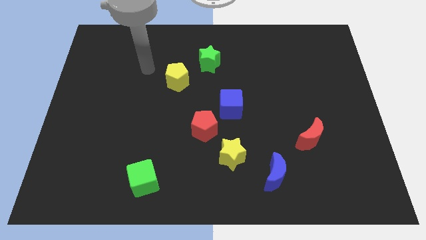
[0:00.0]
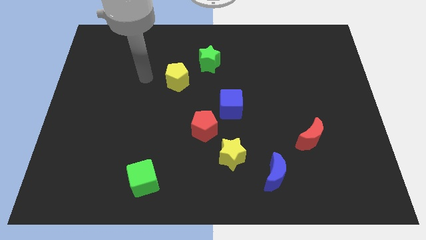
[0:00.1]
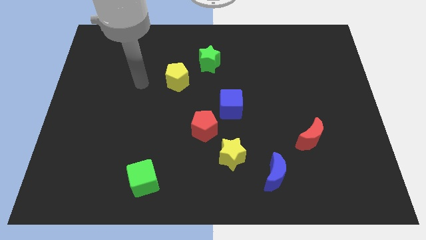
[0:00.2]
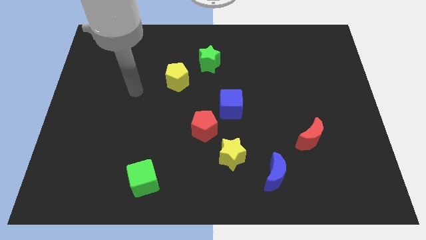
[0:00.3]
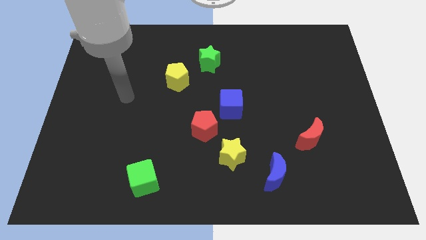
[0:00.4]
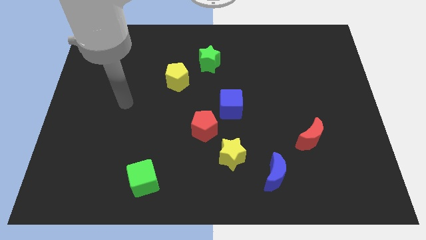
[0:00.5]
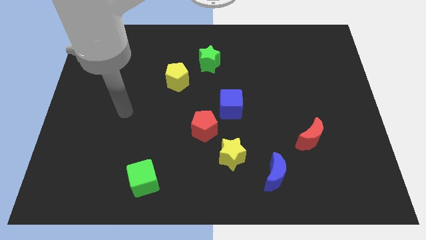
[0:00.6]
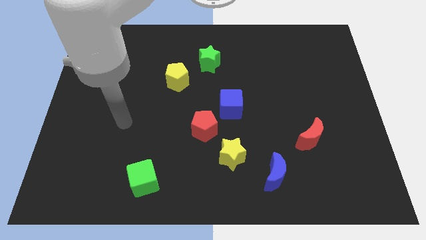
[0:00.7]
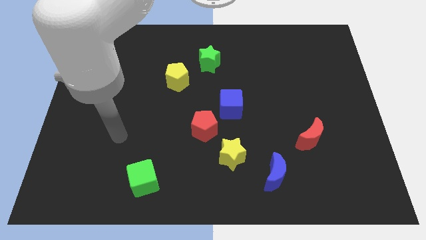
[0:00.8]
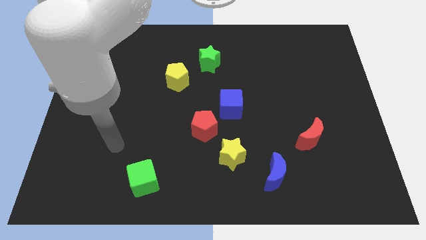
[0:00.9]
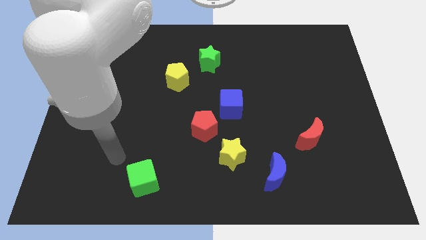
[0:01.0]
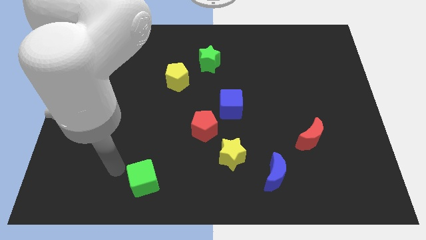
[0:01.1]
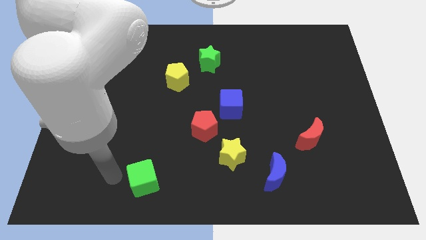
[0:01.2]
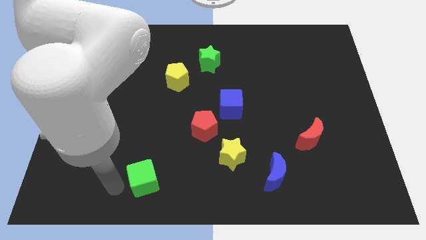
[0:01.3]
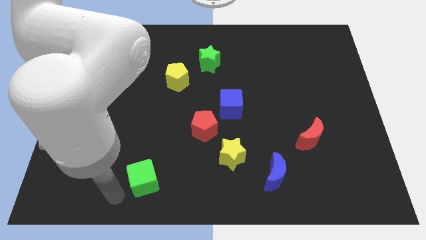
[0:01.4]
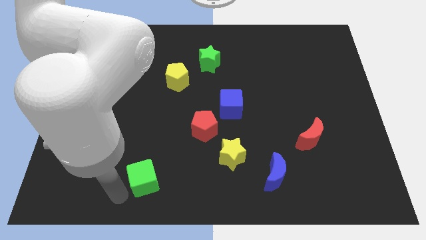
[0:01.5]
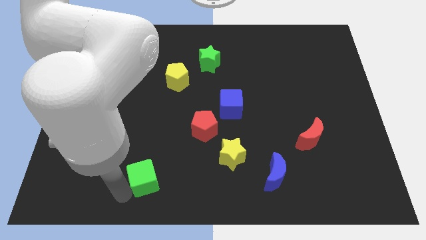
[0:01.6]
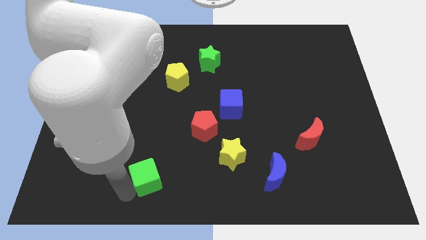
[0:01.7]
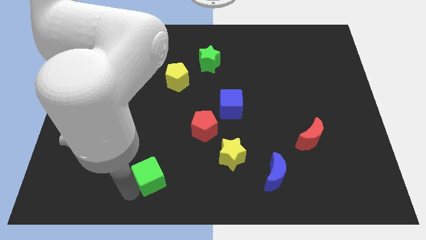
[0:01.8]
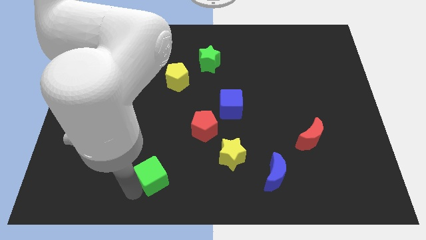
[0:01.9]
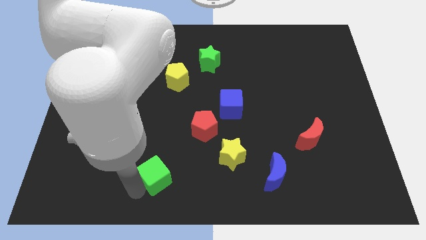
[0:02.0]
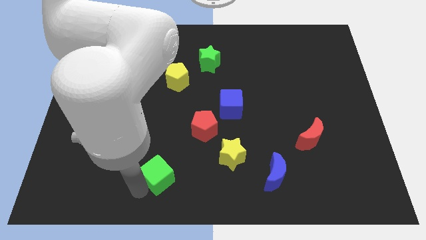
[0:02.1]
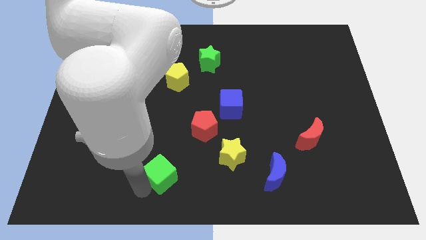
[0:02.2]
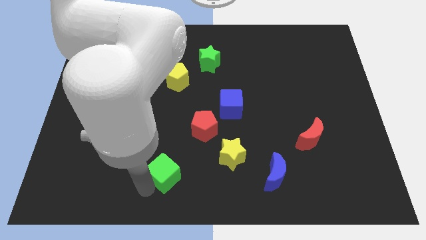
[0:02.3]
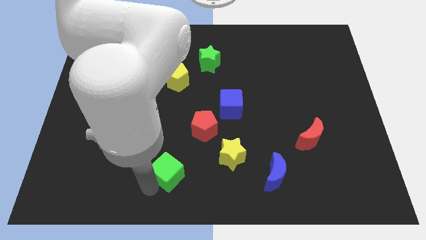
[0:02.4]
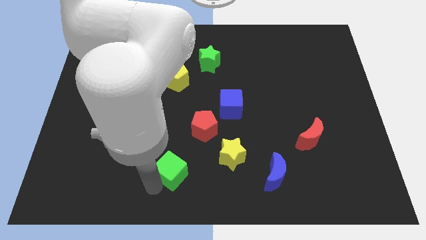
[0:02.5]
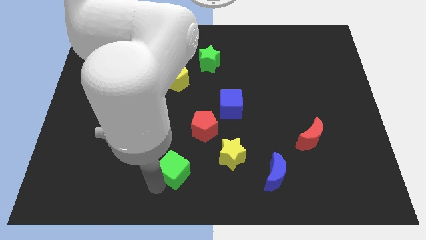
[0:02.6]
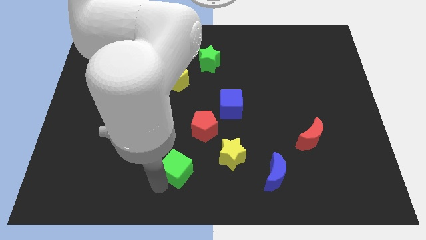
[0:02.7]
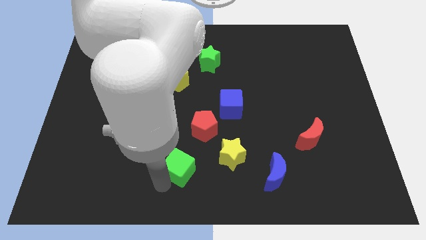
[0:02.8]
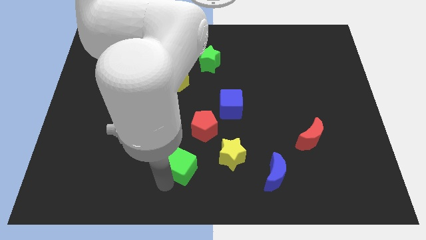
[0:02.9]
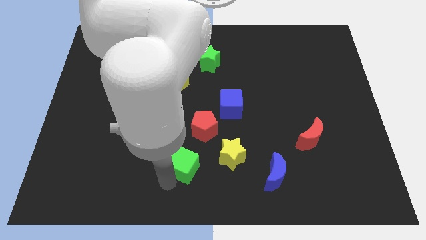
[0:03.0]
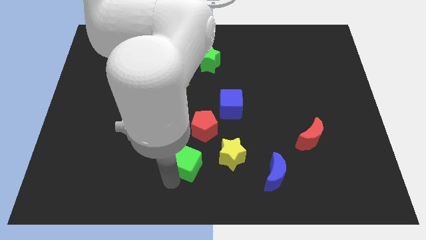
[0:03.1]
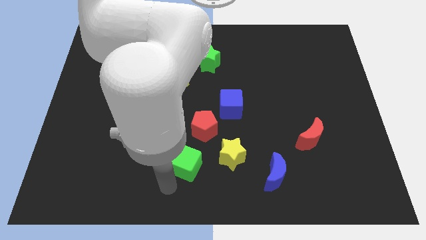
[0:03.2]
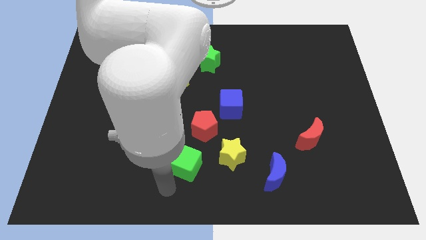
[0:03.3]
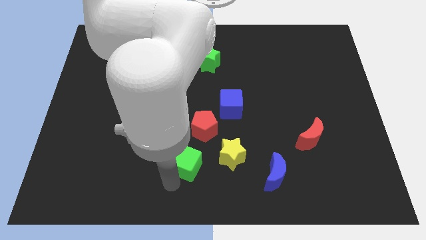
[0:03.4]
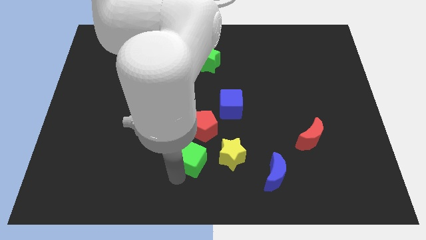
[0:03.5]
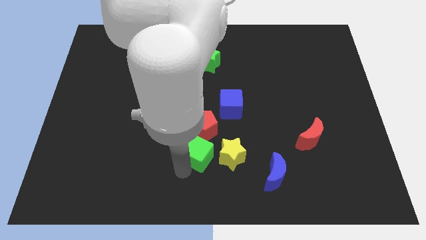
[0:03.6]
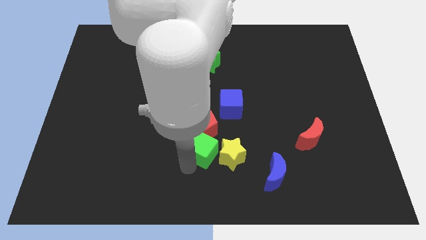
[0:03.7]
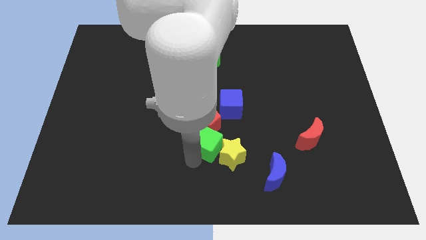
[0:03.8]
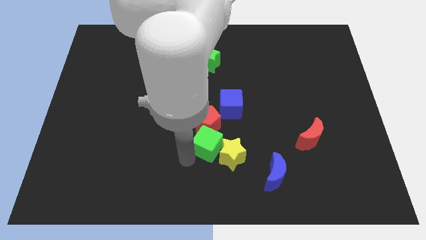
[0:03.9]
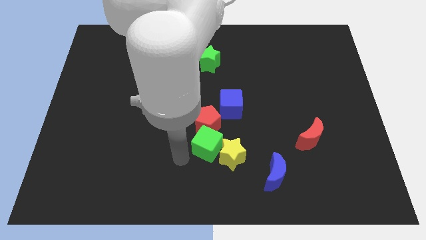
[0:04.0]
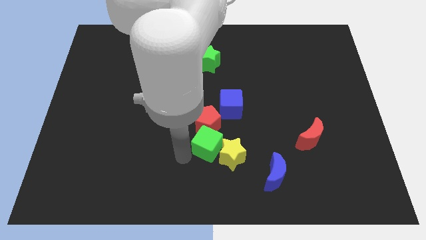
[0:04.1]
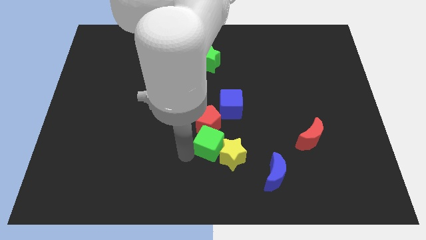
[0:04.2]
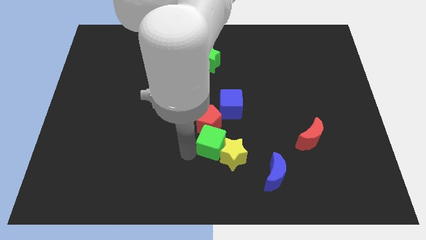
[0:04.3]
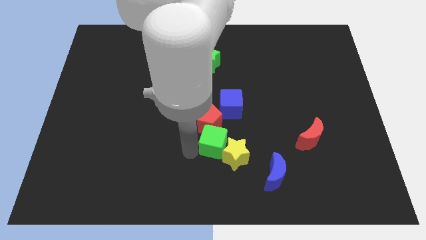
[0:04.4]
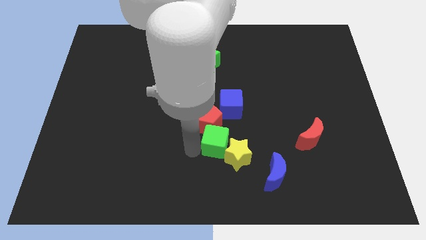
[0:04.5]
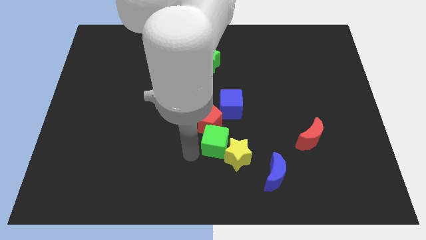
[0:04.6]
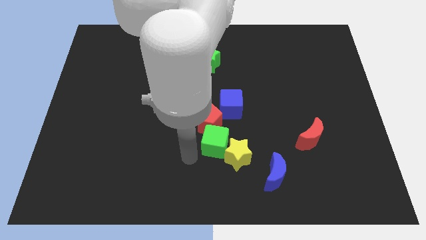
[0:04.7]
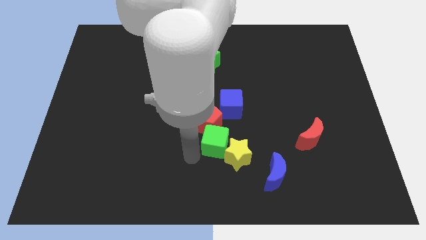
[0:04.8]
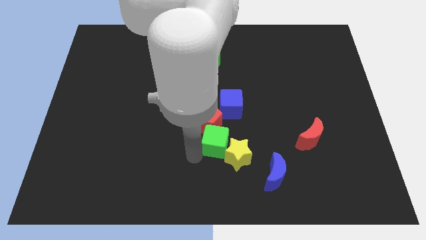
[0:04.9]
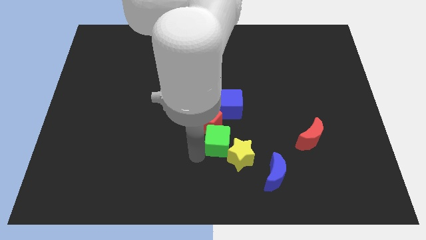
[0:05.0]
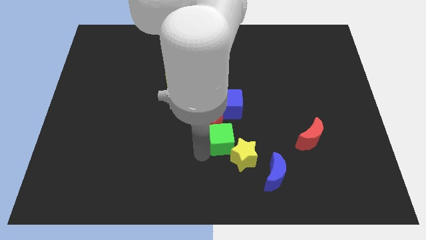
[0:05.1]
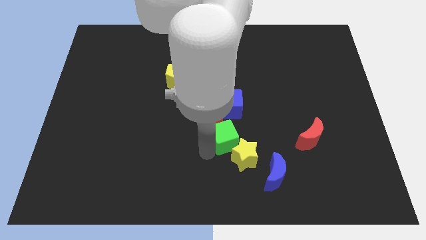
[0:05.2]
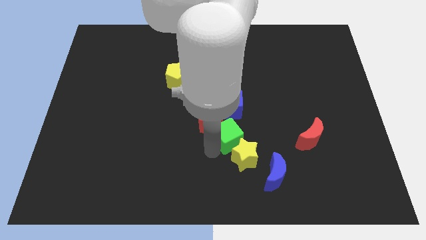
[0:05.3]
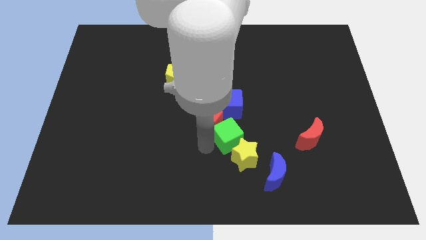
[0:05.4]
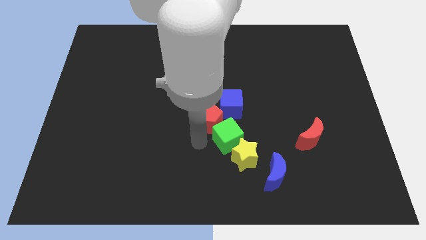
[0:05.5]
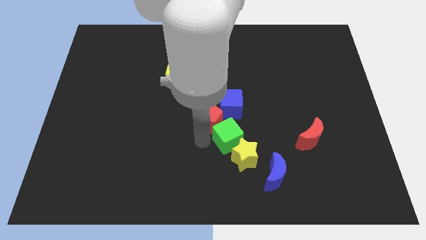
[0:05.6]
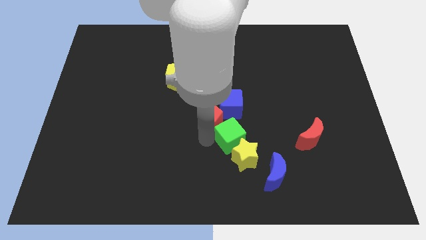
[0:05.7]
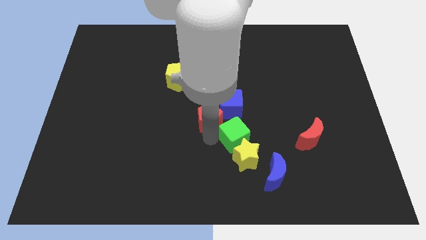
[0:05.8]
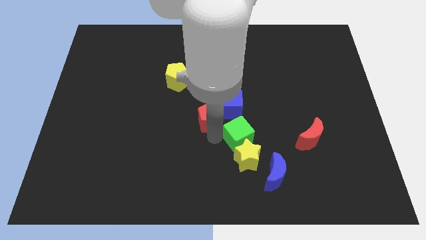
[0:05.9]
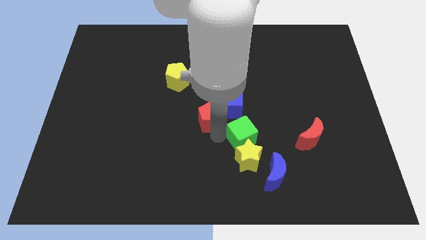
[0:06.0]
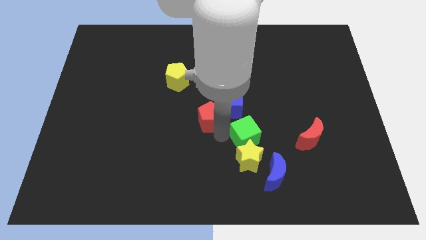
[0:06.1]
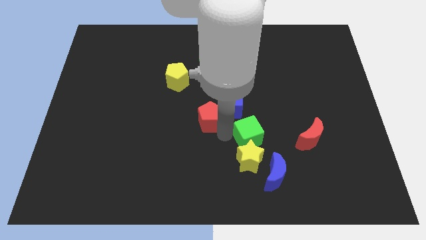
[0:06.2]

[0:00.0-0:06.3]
slide the green cube to the top side of the blue moon

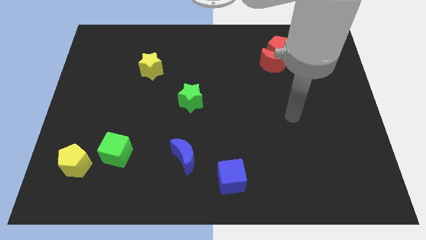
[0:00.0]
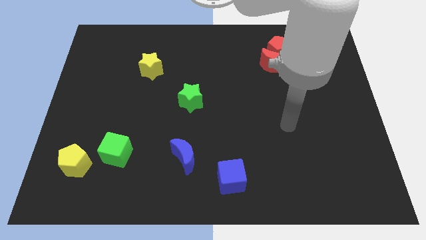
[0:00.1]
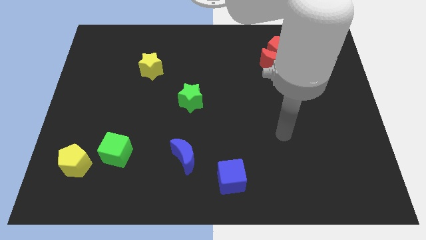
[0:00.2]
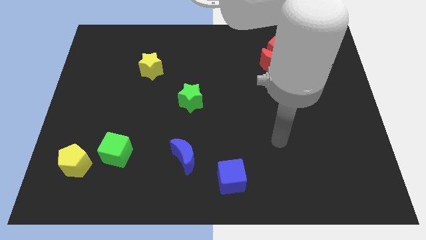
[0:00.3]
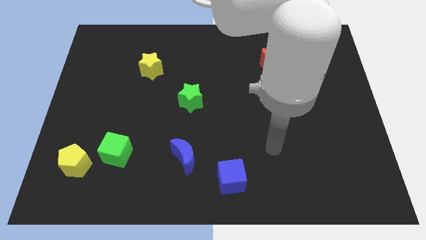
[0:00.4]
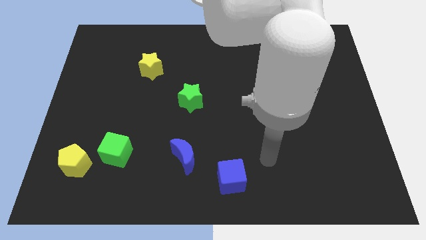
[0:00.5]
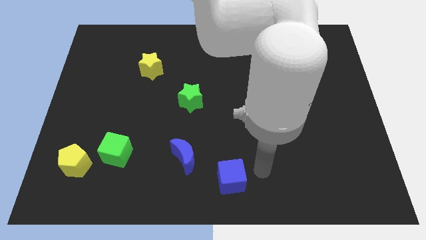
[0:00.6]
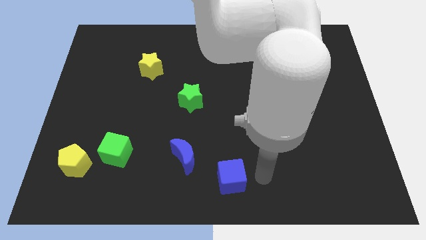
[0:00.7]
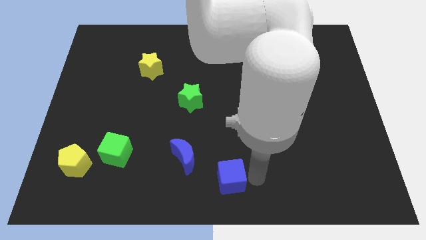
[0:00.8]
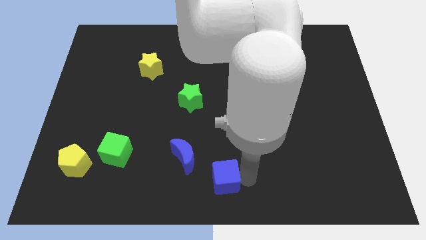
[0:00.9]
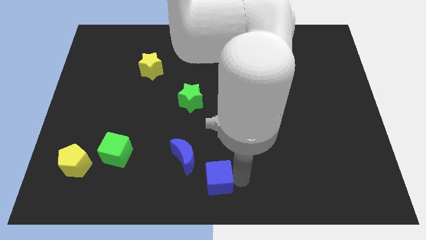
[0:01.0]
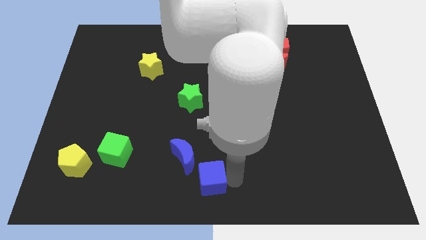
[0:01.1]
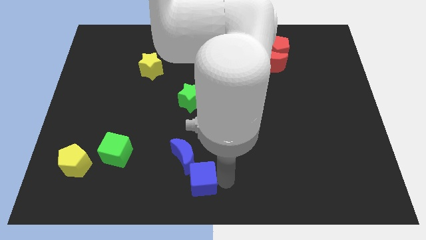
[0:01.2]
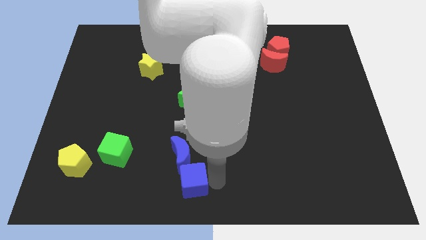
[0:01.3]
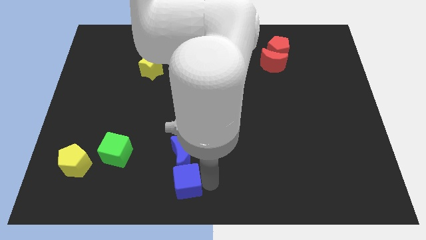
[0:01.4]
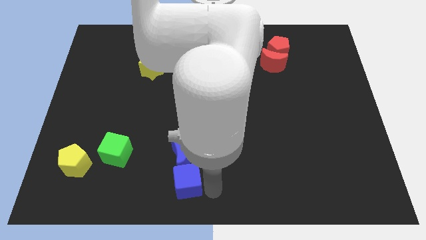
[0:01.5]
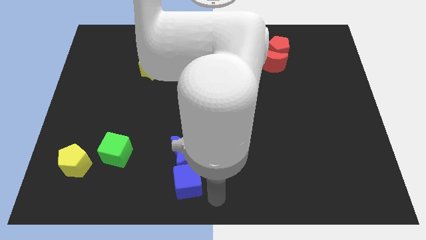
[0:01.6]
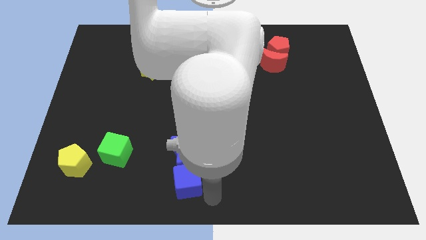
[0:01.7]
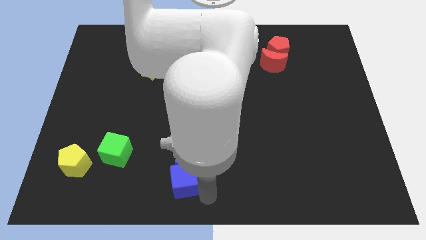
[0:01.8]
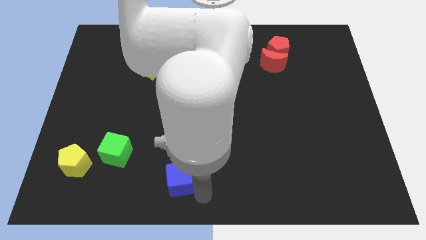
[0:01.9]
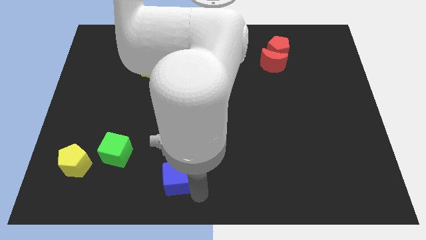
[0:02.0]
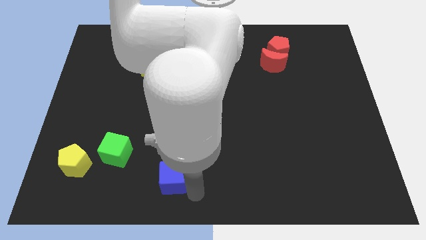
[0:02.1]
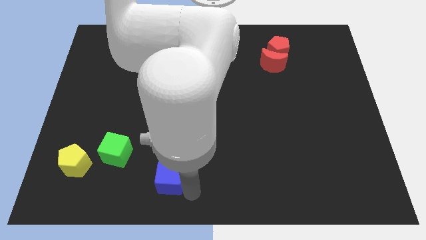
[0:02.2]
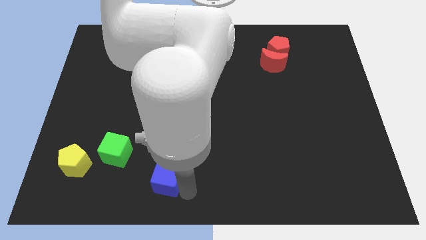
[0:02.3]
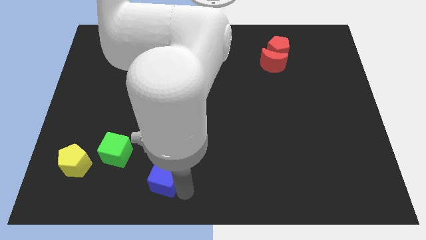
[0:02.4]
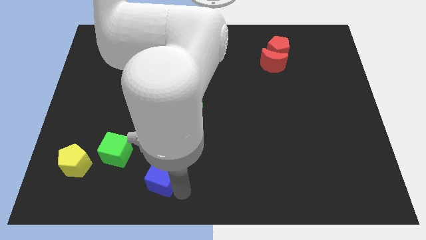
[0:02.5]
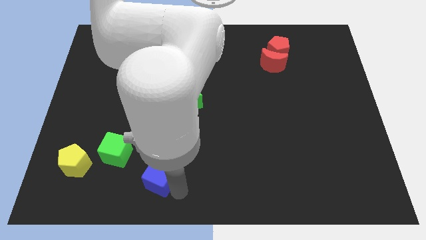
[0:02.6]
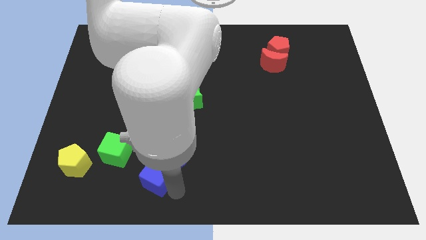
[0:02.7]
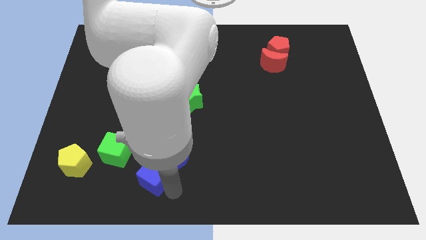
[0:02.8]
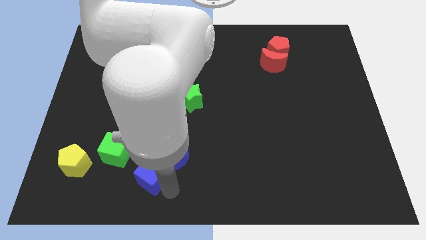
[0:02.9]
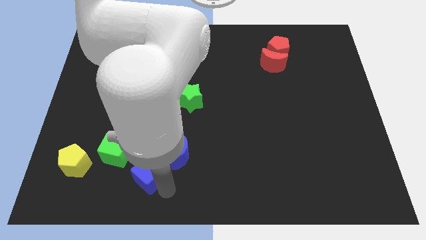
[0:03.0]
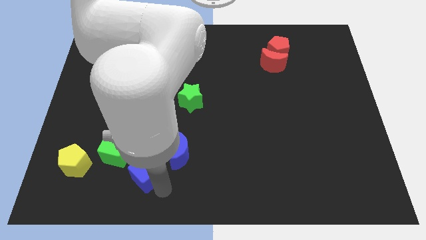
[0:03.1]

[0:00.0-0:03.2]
put the blue cube to the left of the blue moon
